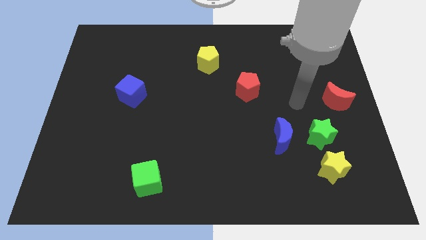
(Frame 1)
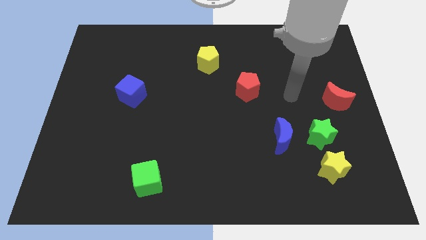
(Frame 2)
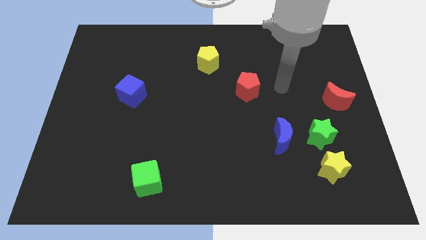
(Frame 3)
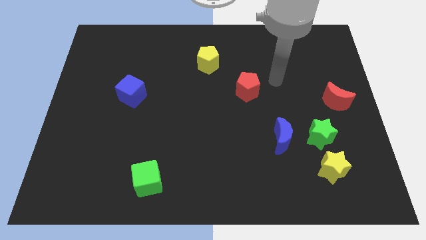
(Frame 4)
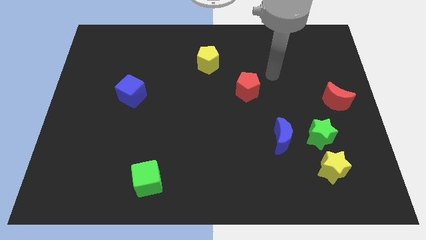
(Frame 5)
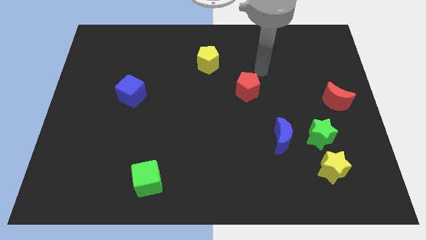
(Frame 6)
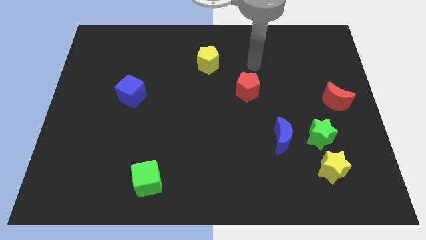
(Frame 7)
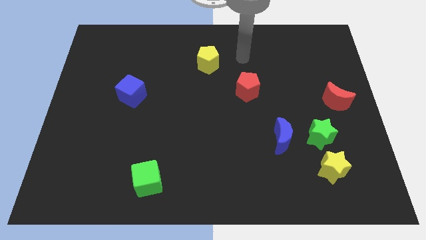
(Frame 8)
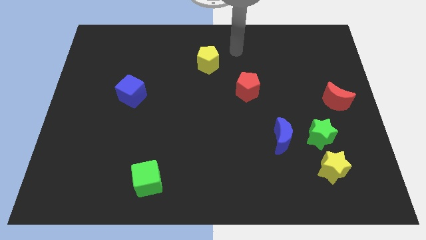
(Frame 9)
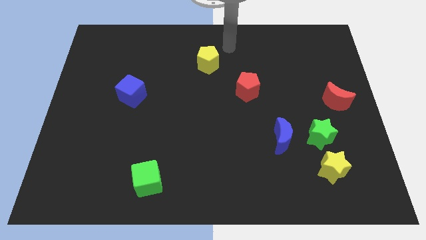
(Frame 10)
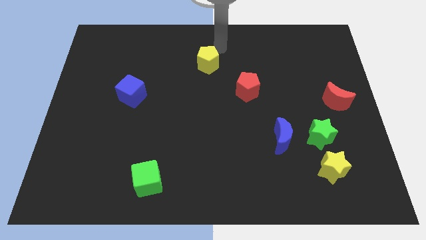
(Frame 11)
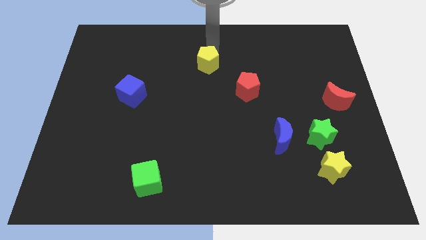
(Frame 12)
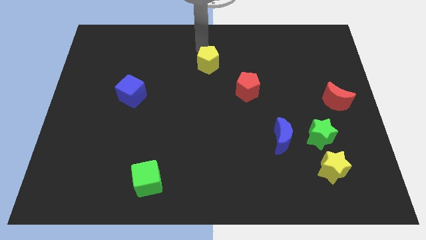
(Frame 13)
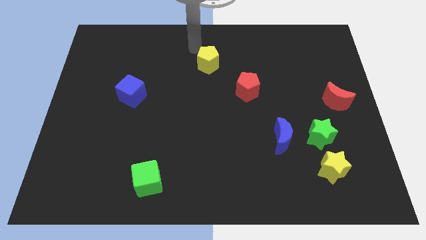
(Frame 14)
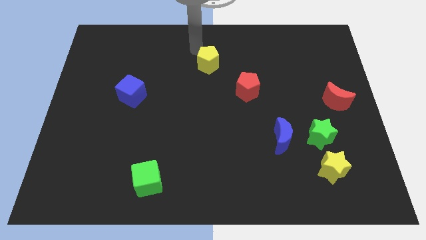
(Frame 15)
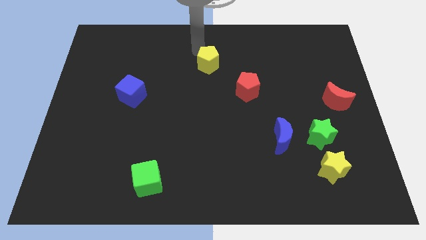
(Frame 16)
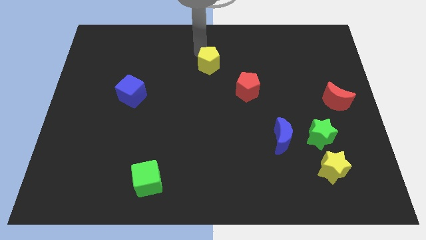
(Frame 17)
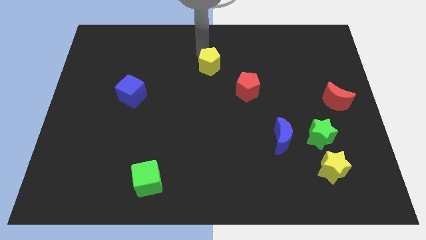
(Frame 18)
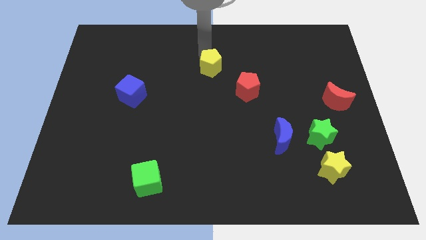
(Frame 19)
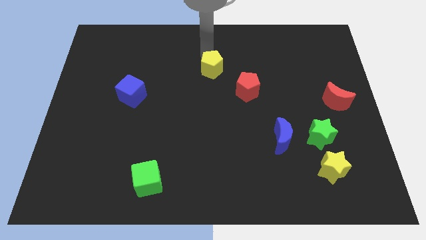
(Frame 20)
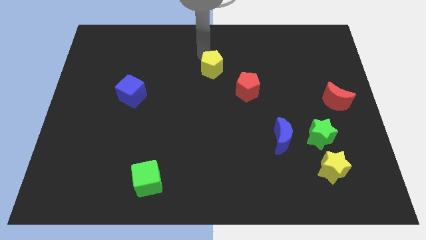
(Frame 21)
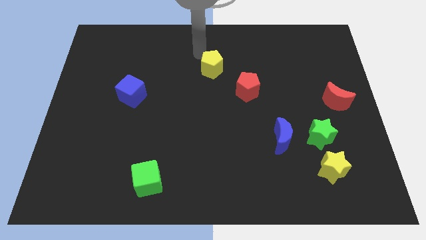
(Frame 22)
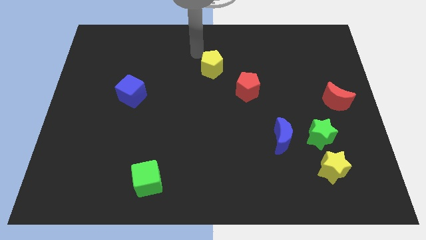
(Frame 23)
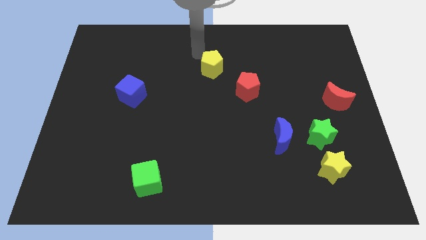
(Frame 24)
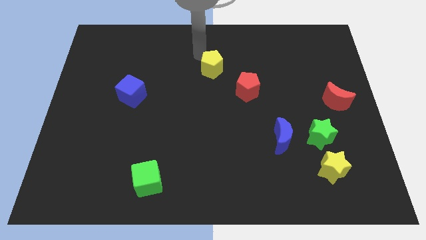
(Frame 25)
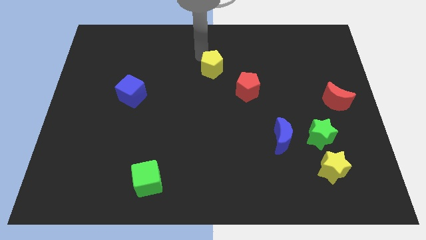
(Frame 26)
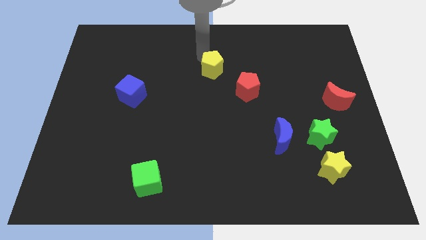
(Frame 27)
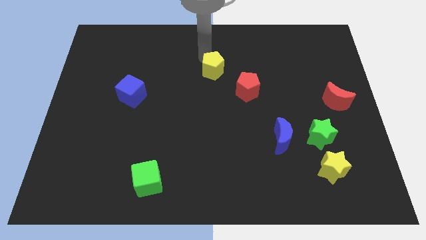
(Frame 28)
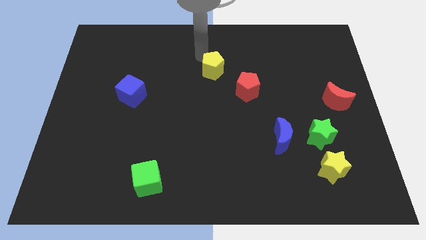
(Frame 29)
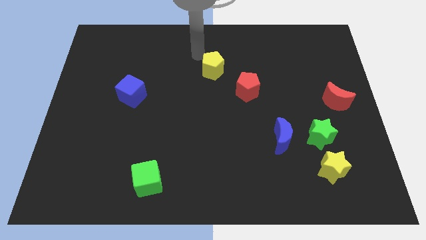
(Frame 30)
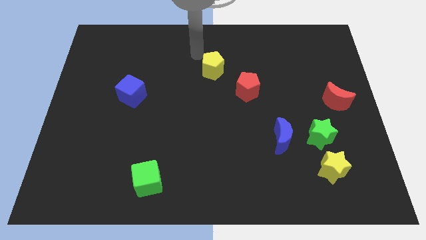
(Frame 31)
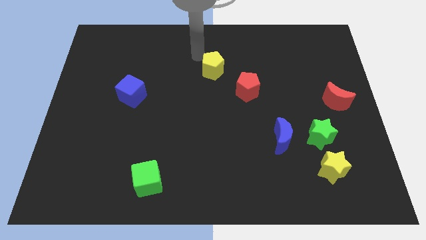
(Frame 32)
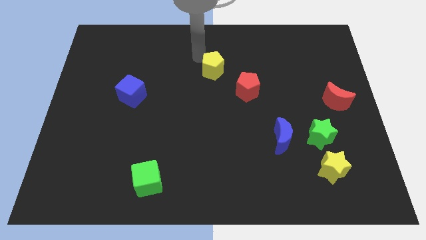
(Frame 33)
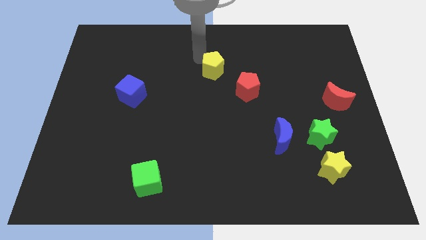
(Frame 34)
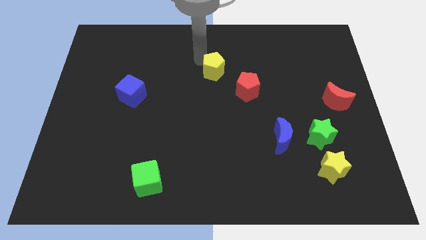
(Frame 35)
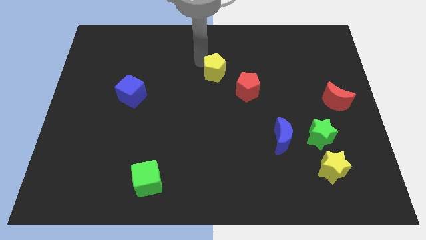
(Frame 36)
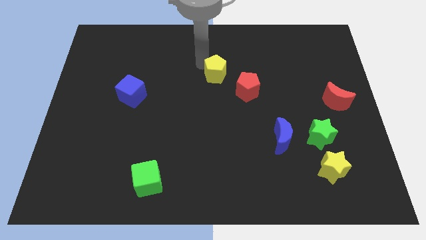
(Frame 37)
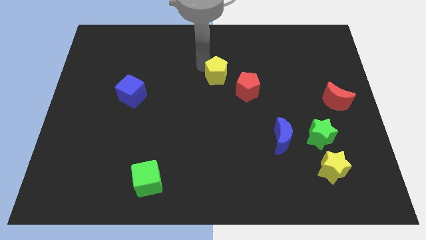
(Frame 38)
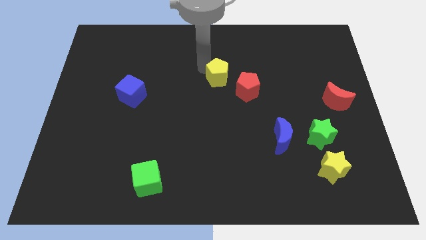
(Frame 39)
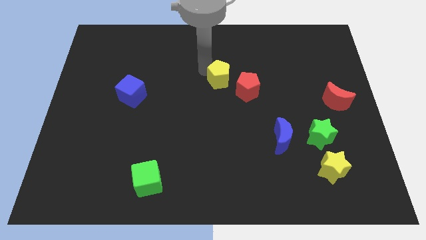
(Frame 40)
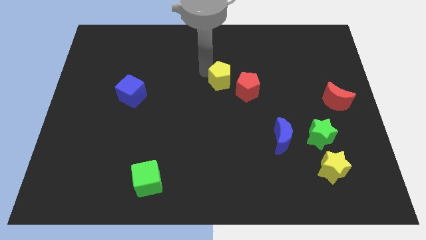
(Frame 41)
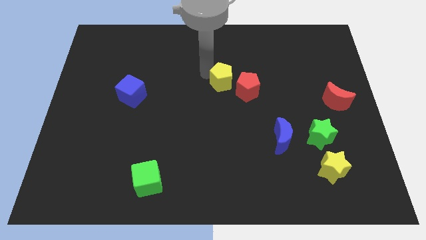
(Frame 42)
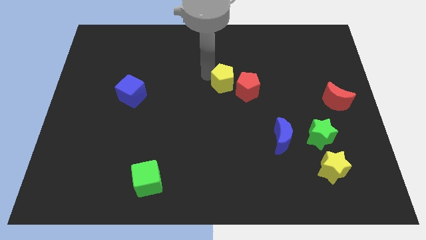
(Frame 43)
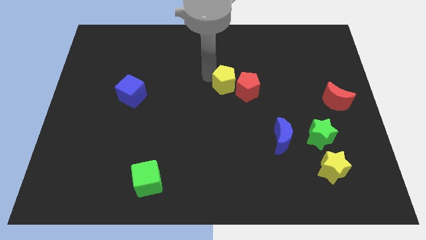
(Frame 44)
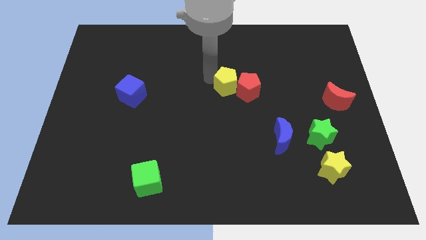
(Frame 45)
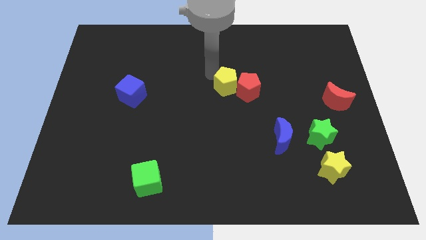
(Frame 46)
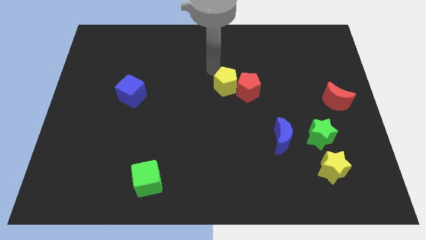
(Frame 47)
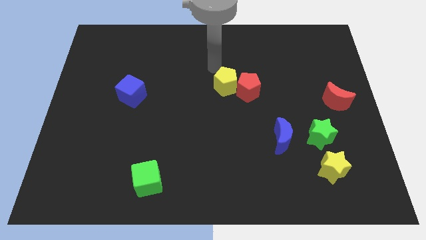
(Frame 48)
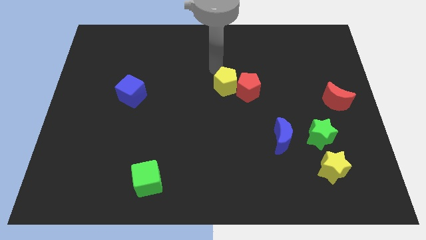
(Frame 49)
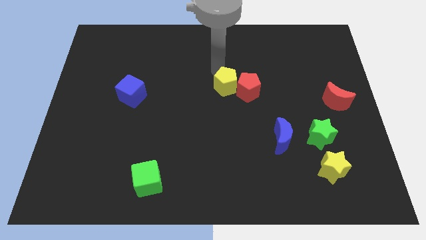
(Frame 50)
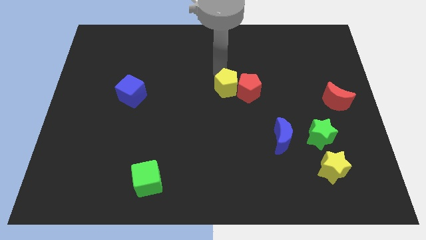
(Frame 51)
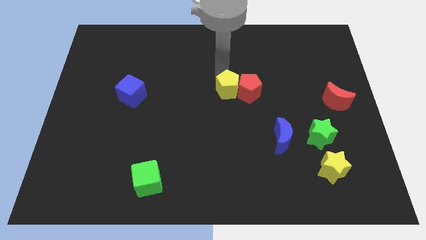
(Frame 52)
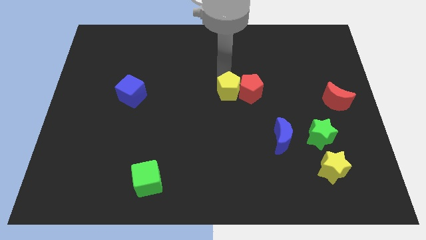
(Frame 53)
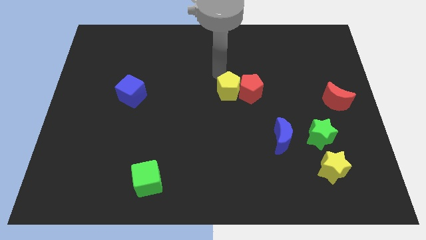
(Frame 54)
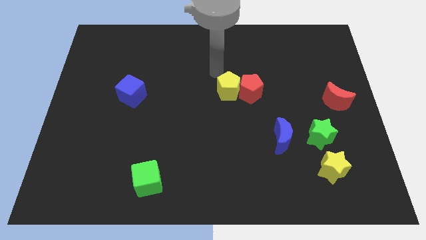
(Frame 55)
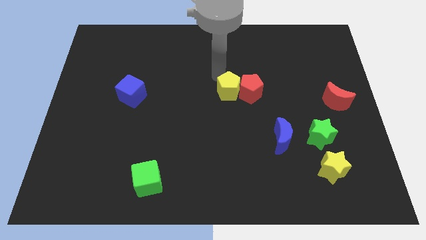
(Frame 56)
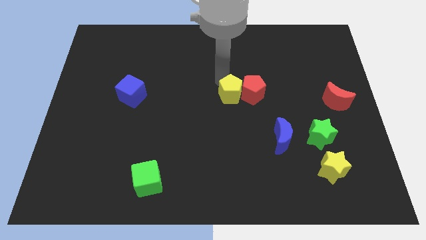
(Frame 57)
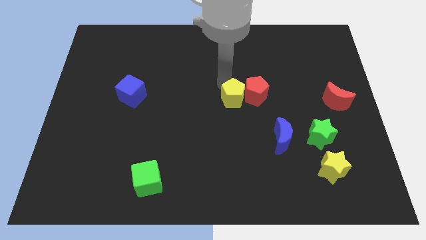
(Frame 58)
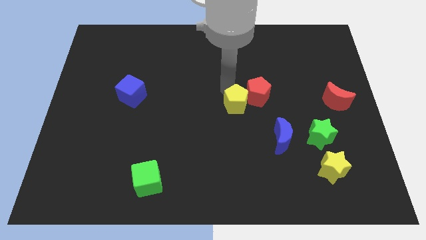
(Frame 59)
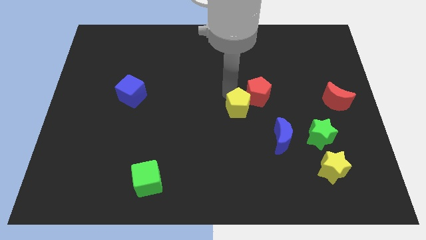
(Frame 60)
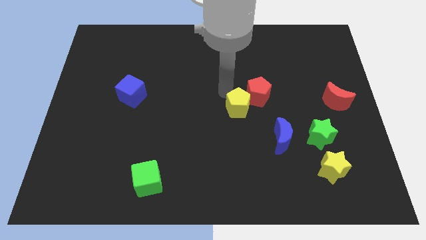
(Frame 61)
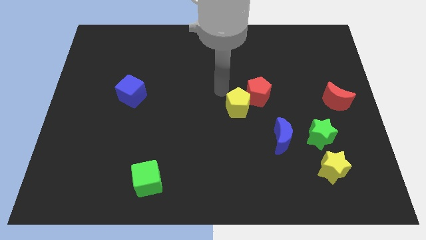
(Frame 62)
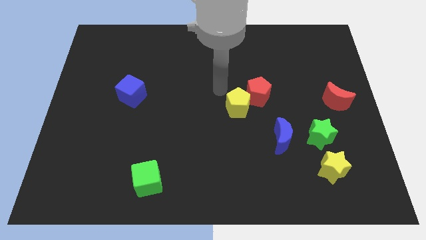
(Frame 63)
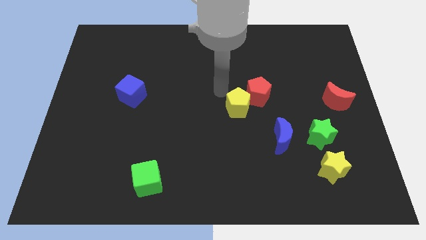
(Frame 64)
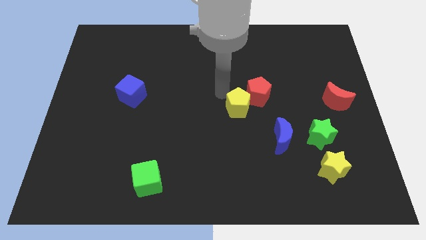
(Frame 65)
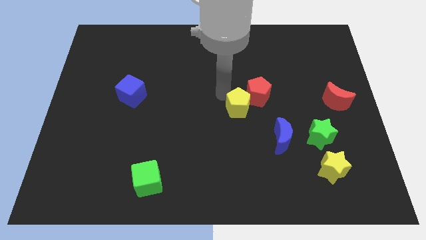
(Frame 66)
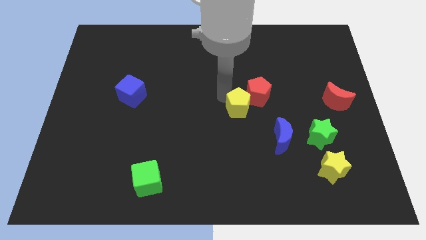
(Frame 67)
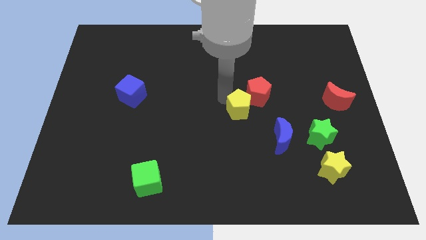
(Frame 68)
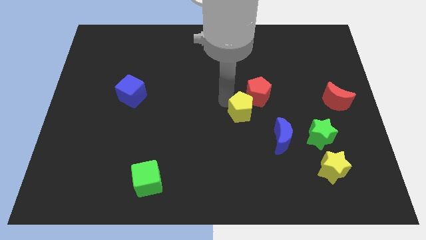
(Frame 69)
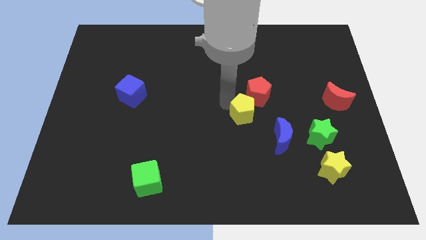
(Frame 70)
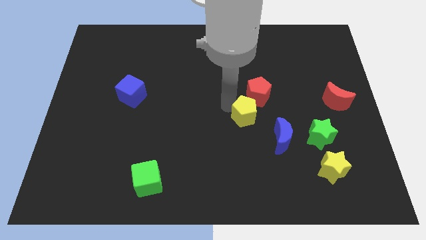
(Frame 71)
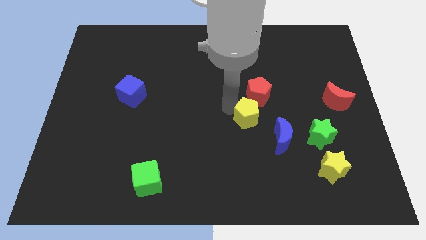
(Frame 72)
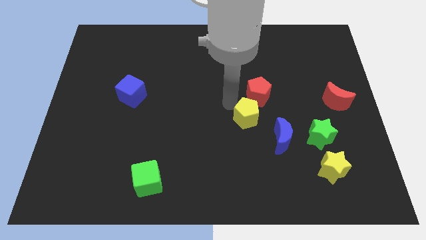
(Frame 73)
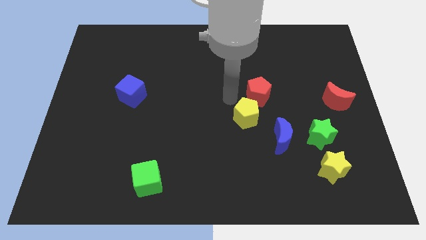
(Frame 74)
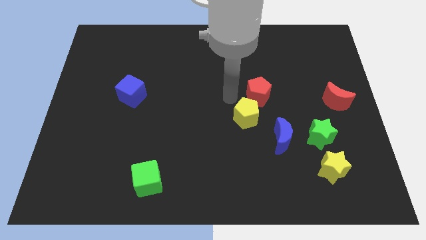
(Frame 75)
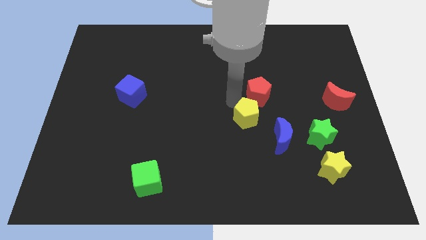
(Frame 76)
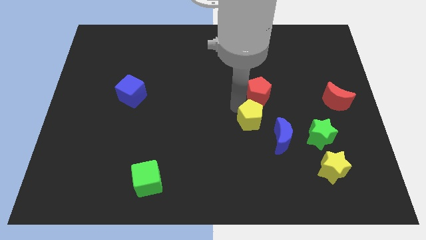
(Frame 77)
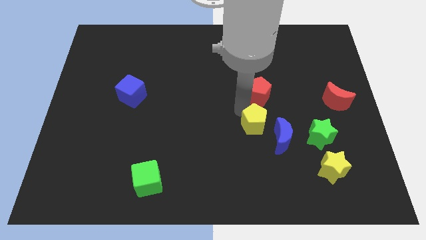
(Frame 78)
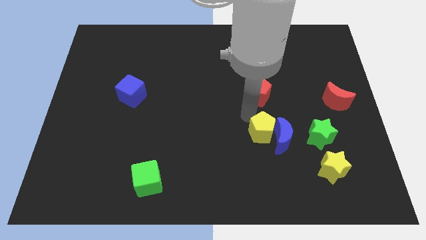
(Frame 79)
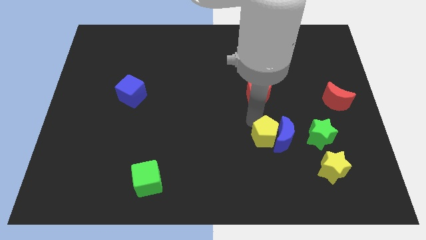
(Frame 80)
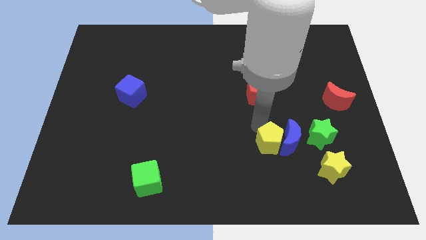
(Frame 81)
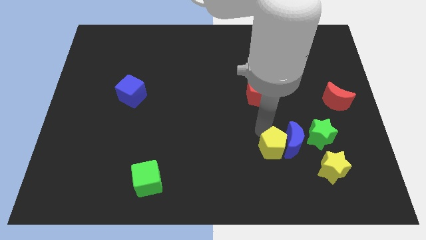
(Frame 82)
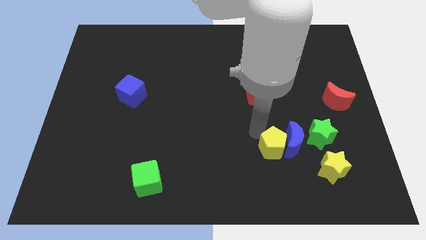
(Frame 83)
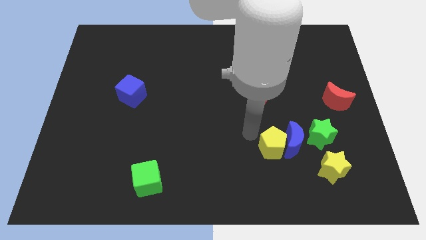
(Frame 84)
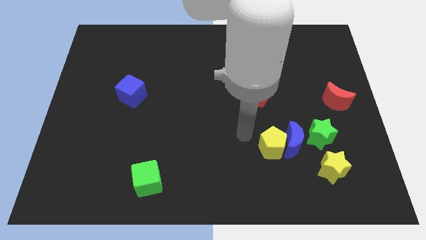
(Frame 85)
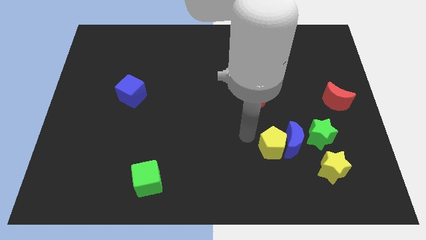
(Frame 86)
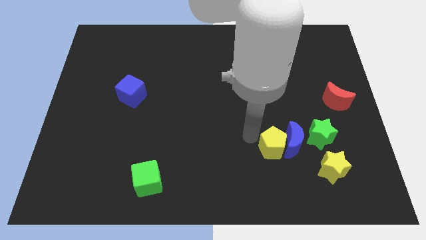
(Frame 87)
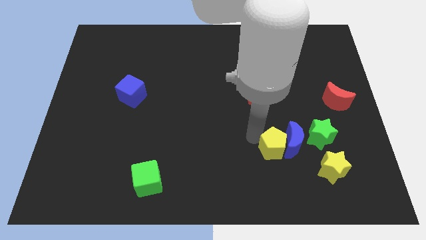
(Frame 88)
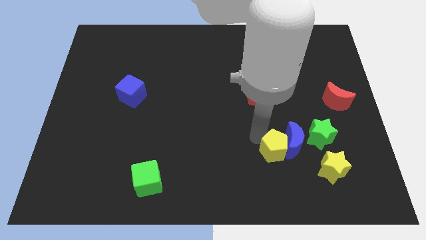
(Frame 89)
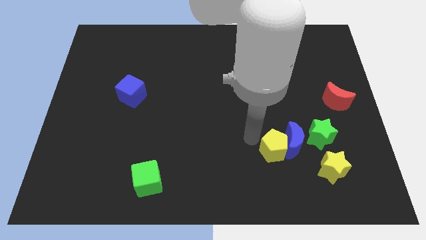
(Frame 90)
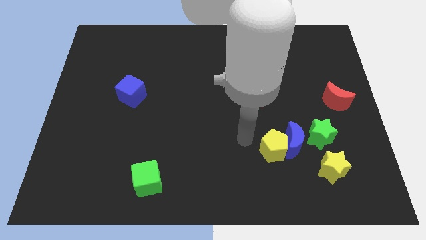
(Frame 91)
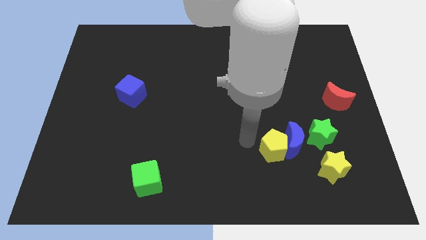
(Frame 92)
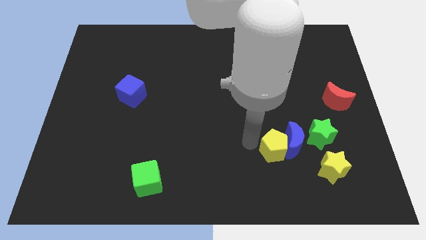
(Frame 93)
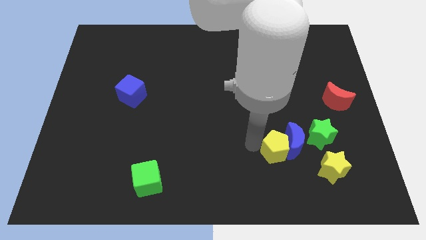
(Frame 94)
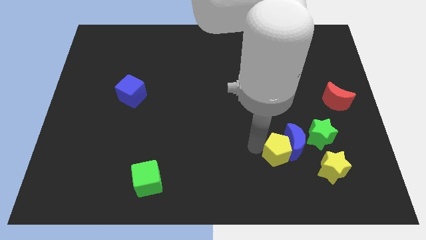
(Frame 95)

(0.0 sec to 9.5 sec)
slide the yellow pentagon to the bottom left of the green star
